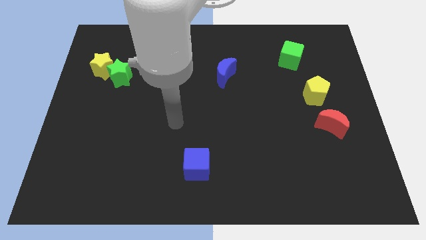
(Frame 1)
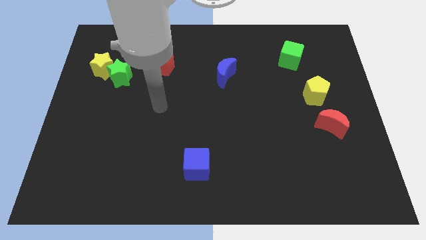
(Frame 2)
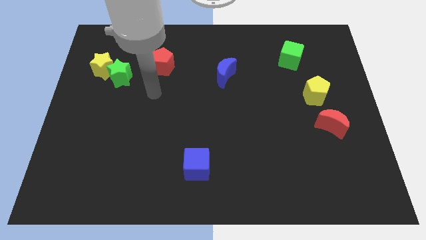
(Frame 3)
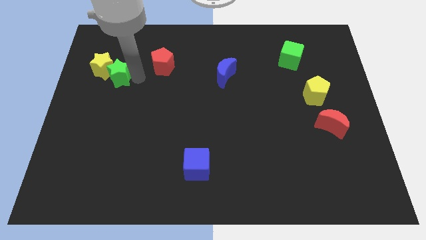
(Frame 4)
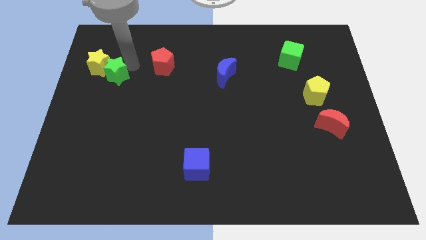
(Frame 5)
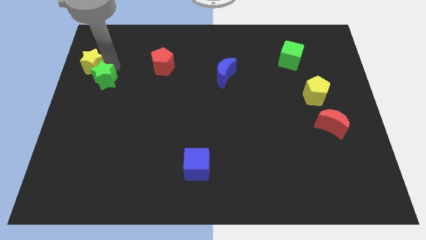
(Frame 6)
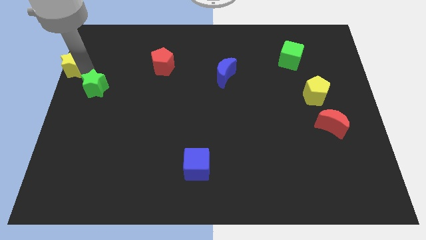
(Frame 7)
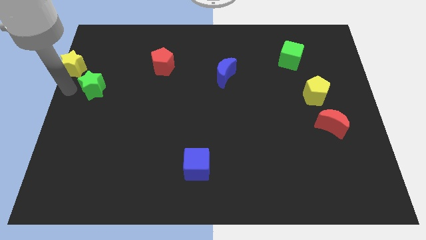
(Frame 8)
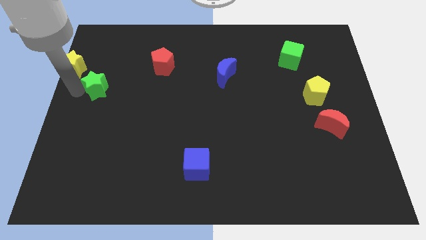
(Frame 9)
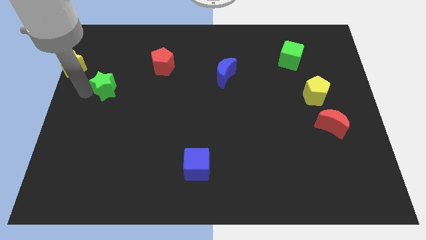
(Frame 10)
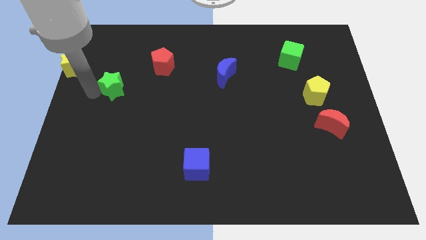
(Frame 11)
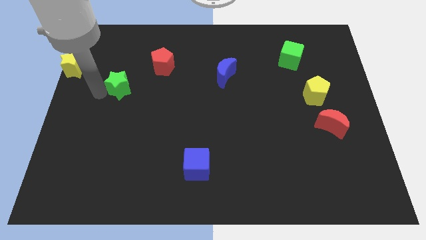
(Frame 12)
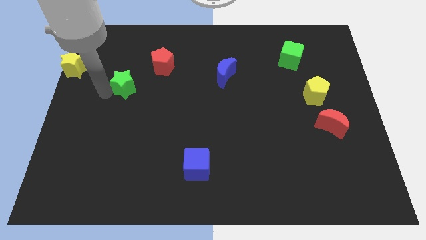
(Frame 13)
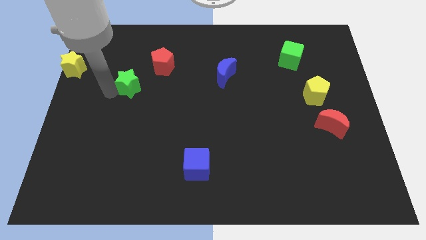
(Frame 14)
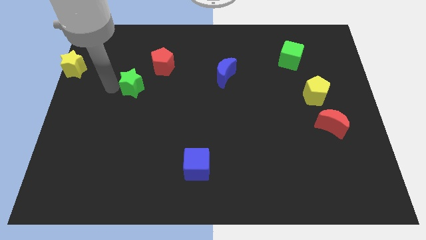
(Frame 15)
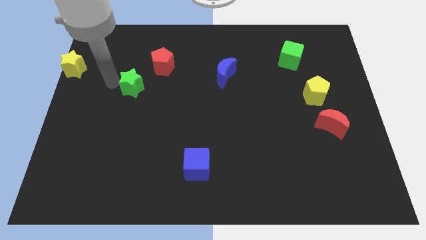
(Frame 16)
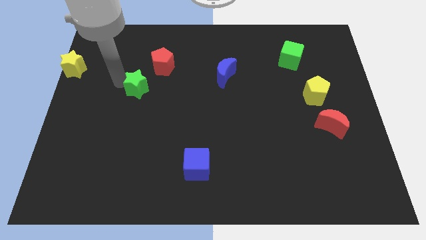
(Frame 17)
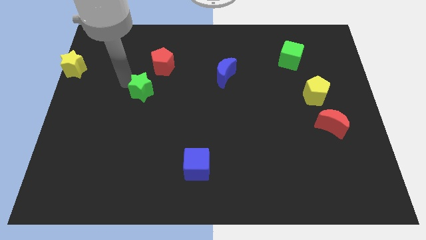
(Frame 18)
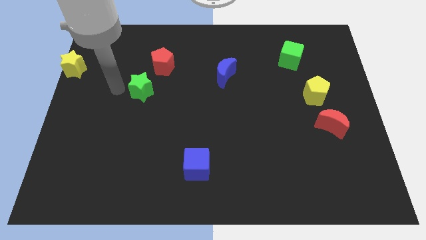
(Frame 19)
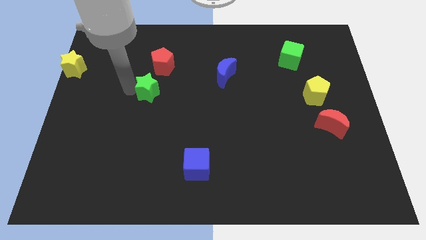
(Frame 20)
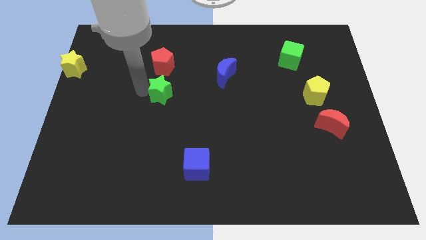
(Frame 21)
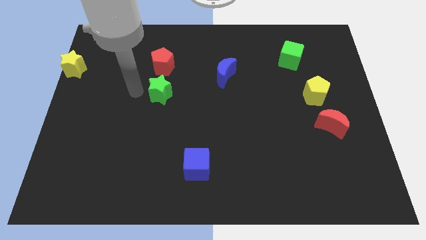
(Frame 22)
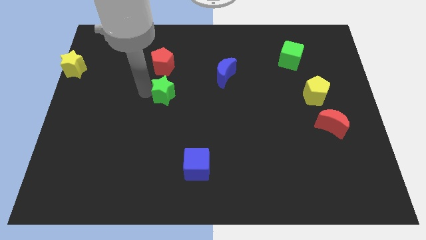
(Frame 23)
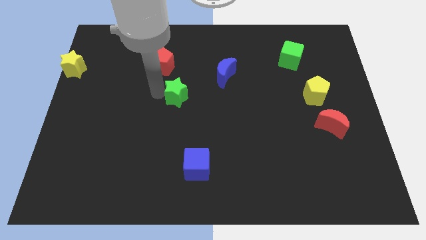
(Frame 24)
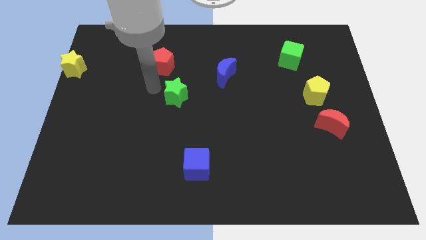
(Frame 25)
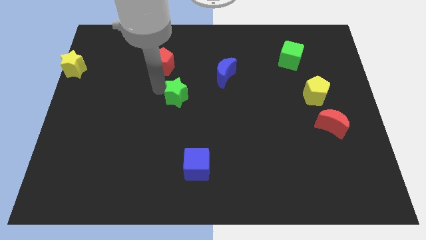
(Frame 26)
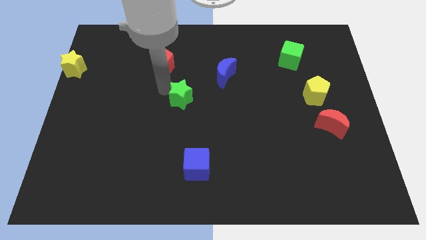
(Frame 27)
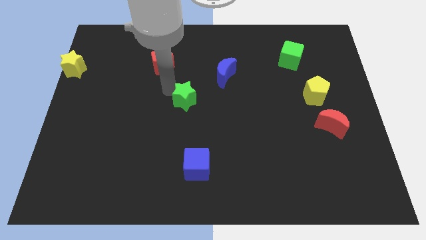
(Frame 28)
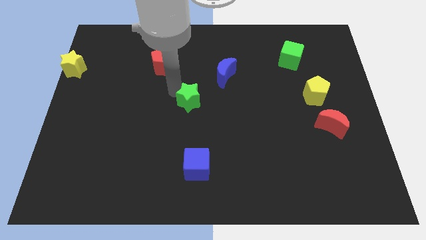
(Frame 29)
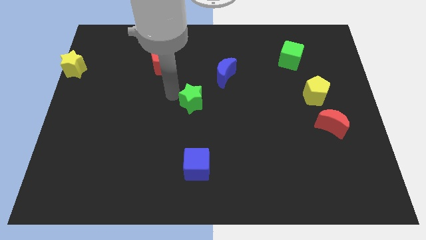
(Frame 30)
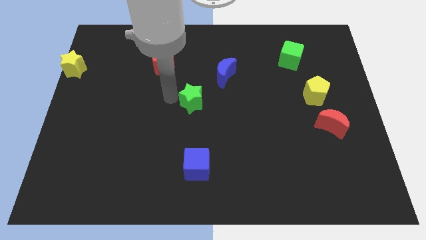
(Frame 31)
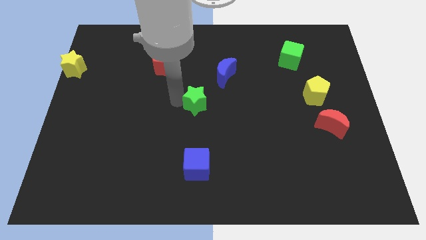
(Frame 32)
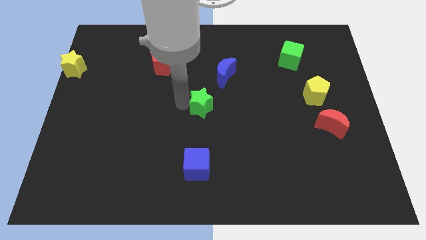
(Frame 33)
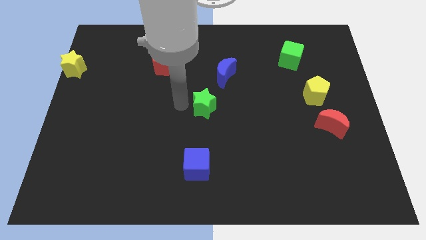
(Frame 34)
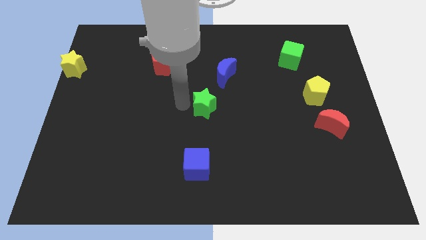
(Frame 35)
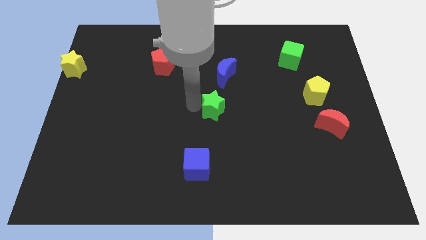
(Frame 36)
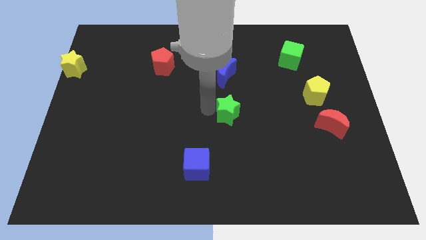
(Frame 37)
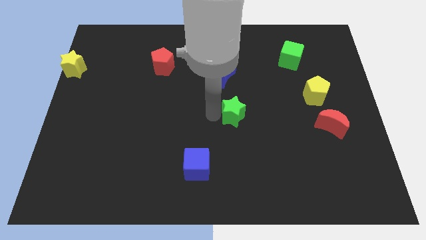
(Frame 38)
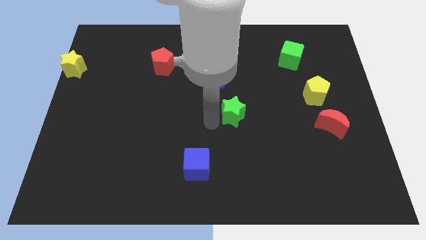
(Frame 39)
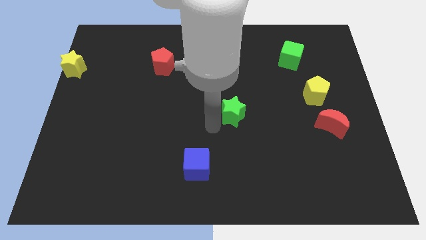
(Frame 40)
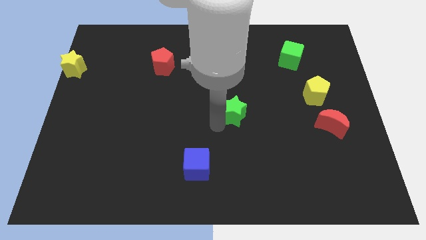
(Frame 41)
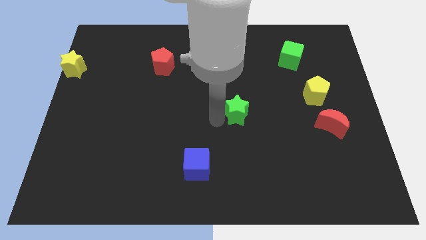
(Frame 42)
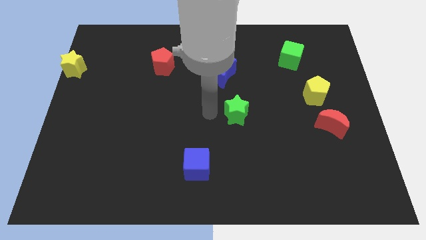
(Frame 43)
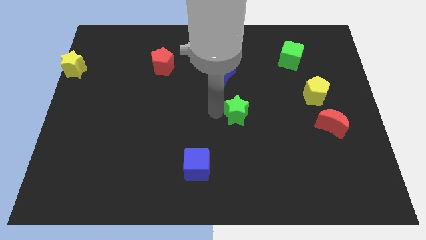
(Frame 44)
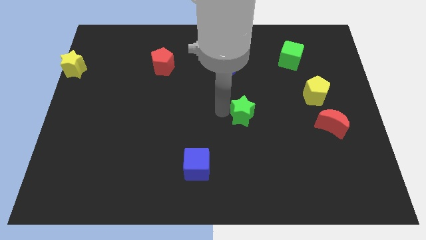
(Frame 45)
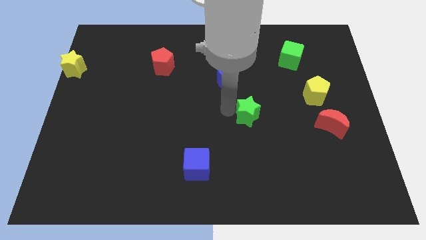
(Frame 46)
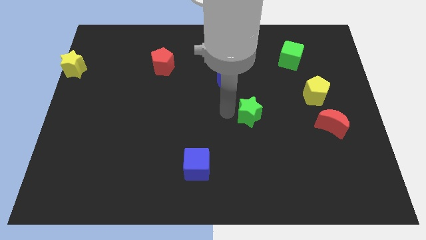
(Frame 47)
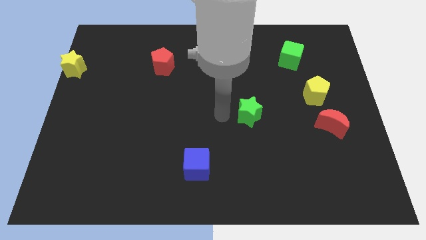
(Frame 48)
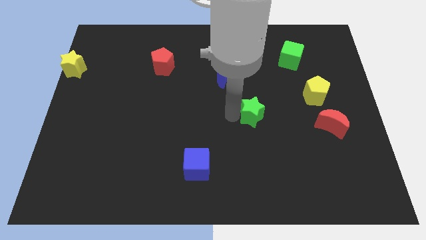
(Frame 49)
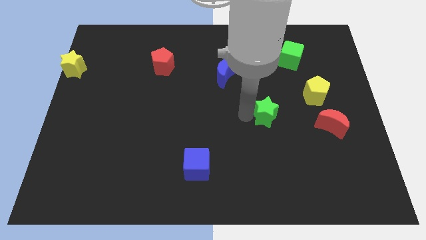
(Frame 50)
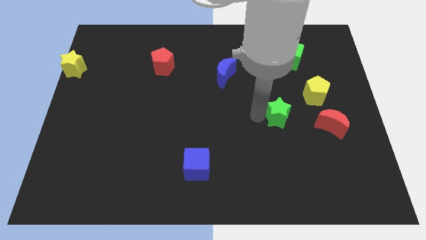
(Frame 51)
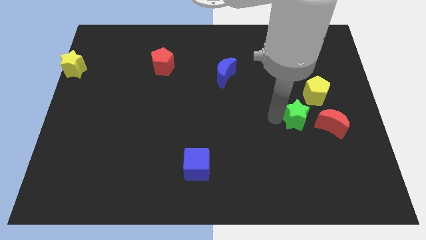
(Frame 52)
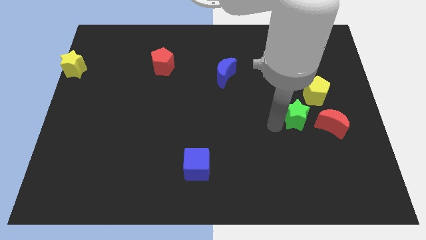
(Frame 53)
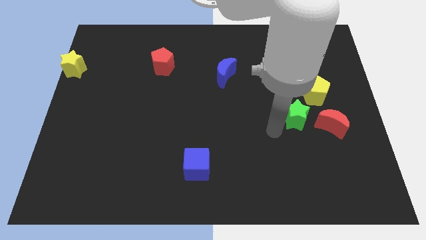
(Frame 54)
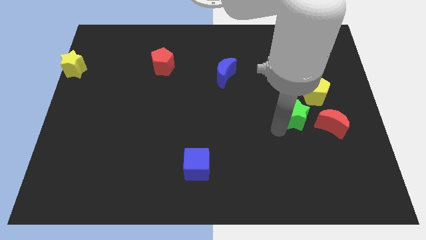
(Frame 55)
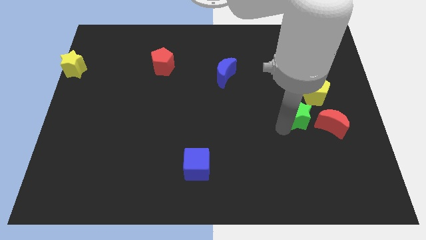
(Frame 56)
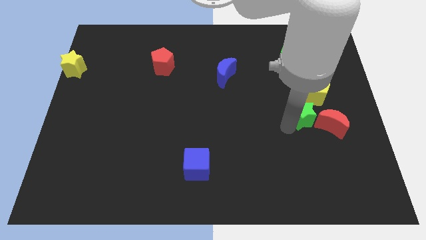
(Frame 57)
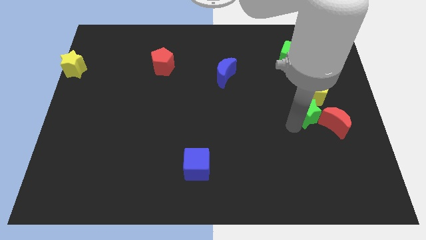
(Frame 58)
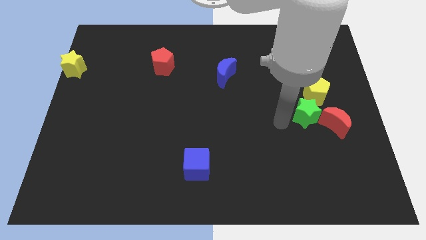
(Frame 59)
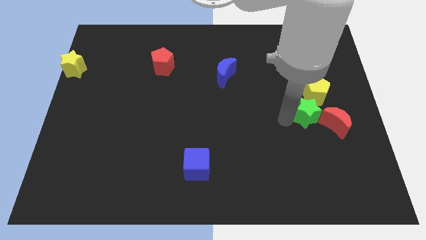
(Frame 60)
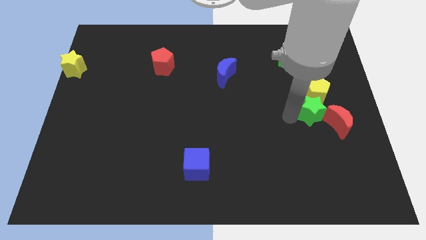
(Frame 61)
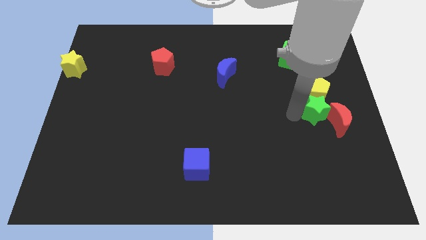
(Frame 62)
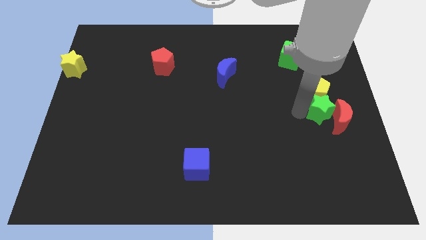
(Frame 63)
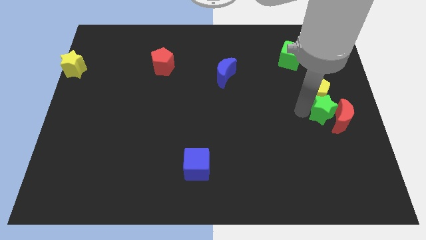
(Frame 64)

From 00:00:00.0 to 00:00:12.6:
slide the green star to the right side of the board

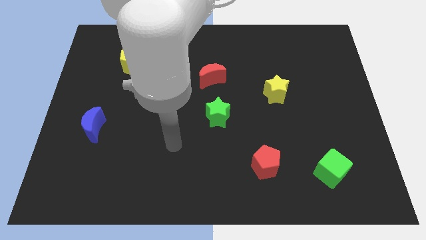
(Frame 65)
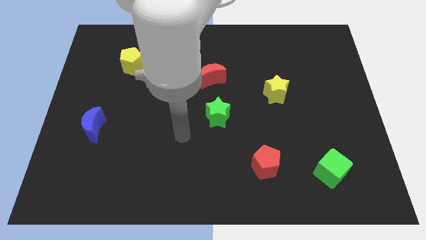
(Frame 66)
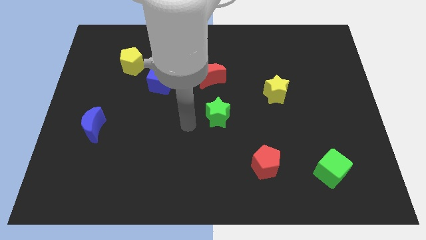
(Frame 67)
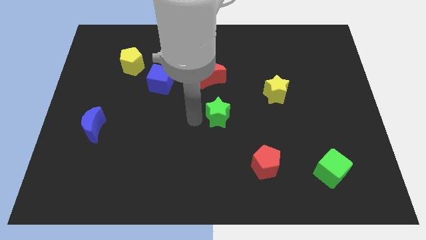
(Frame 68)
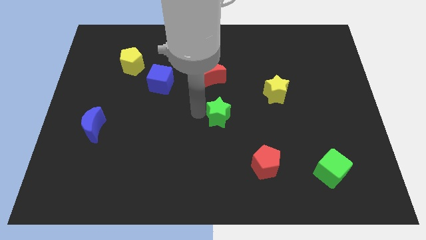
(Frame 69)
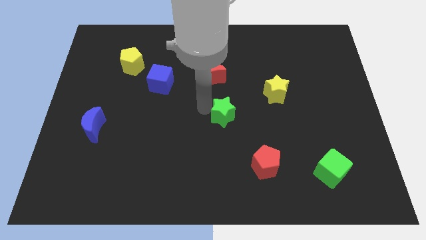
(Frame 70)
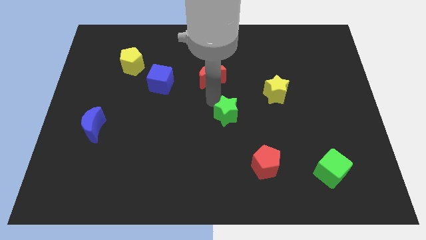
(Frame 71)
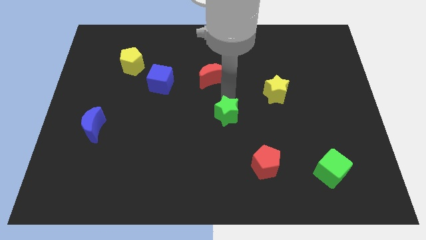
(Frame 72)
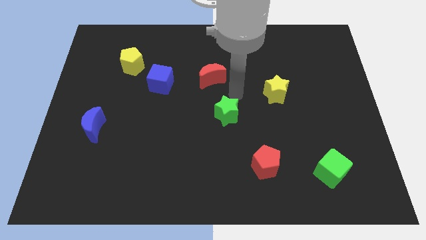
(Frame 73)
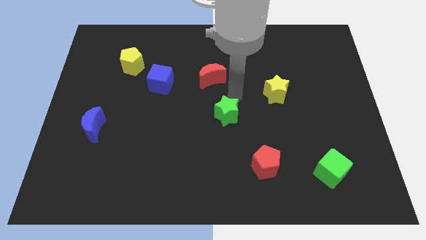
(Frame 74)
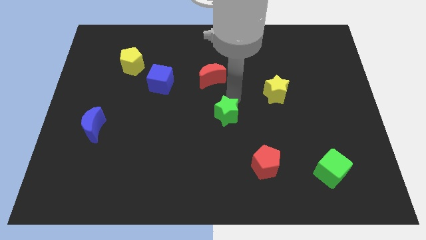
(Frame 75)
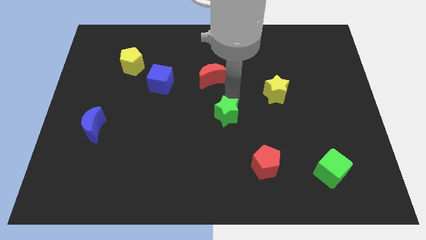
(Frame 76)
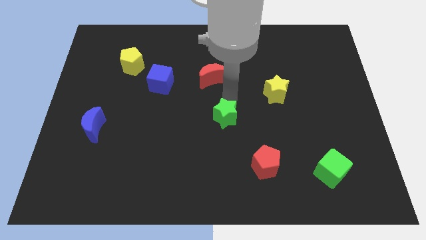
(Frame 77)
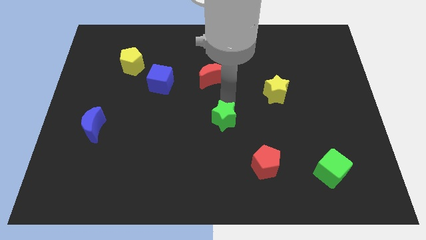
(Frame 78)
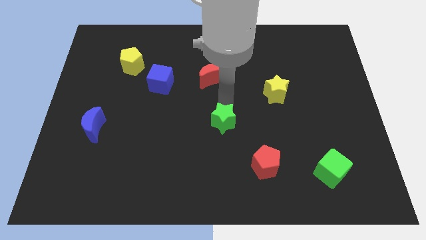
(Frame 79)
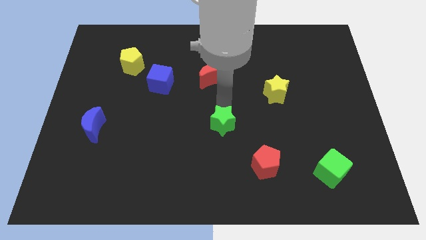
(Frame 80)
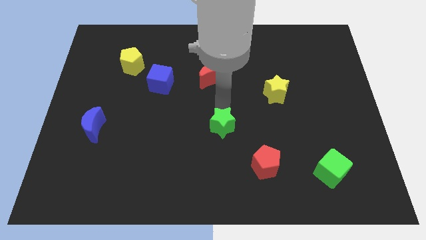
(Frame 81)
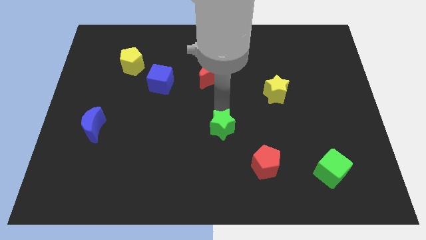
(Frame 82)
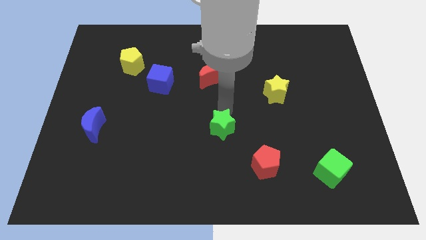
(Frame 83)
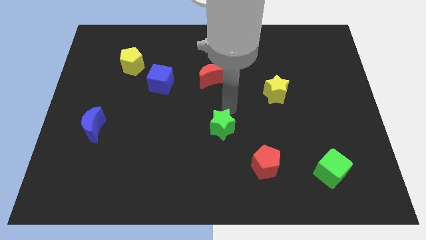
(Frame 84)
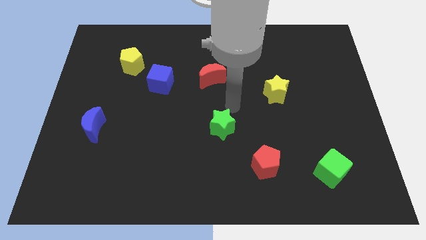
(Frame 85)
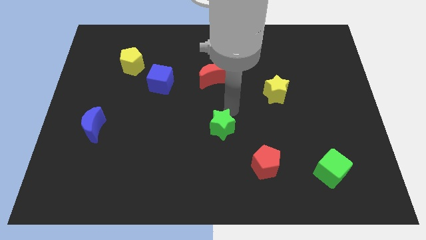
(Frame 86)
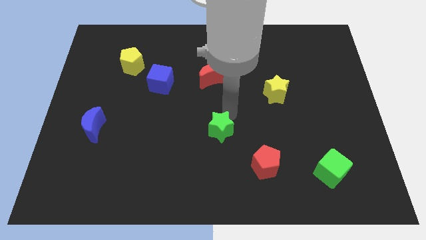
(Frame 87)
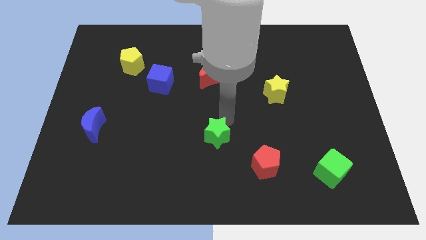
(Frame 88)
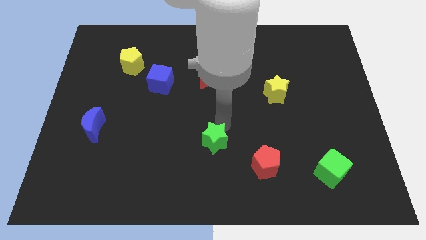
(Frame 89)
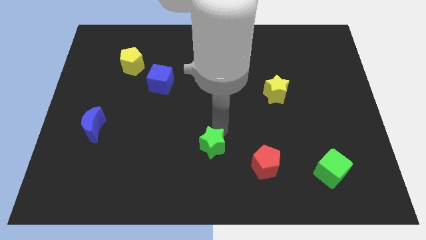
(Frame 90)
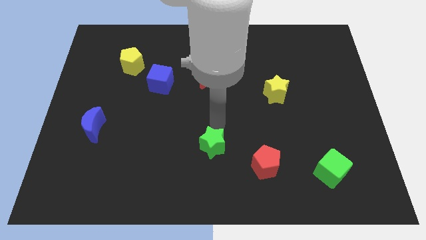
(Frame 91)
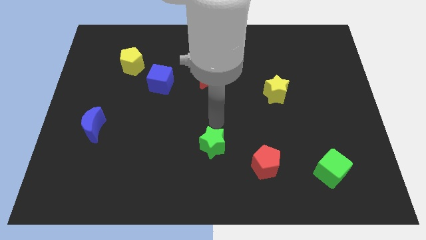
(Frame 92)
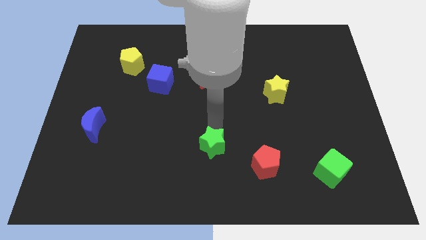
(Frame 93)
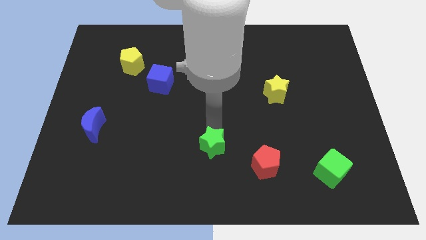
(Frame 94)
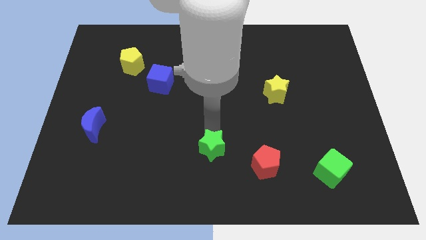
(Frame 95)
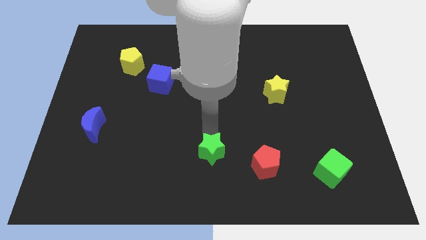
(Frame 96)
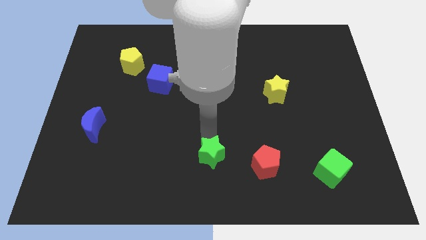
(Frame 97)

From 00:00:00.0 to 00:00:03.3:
push the green star to the bottom
